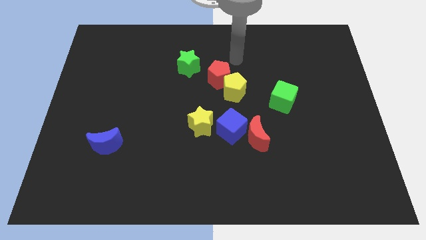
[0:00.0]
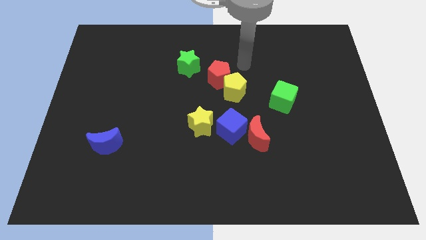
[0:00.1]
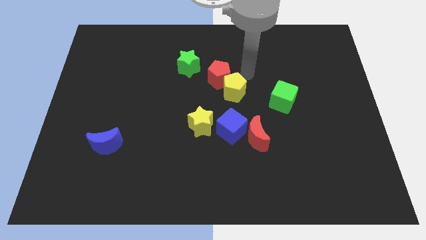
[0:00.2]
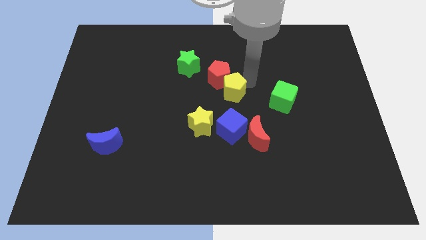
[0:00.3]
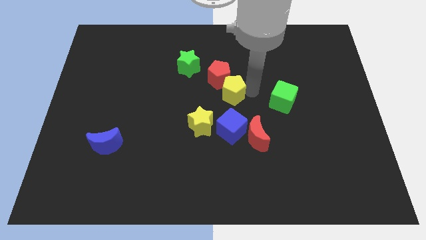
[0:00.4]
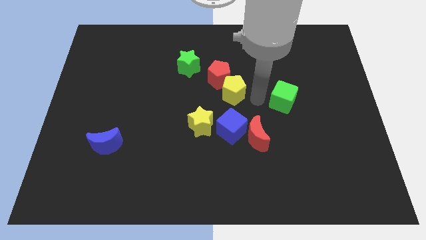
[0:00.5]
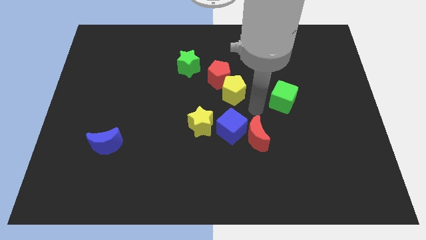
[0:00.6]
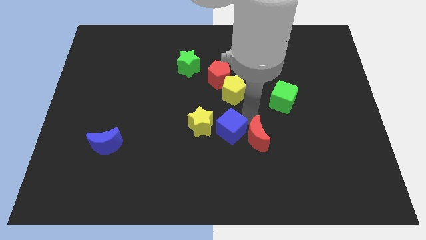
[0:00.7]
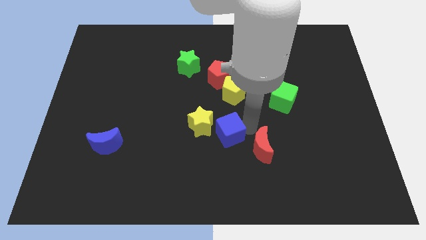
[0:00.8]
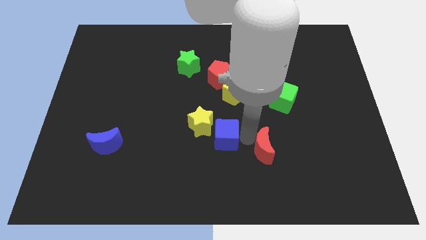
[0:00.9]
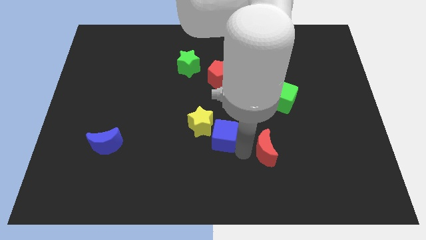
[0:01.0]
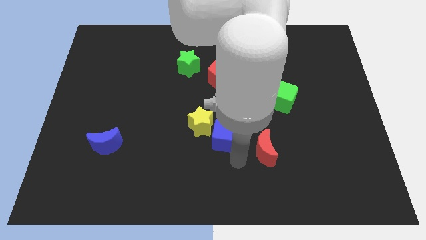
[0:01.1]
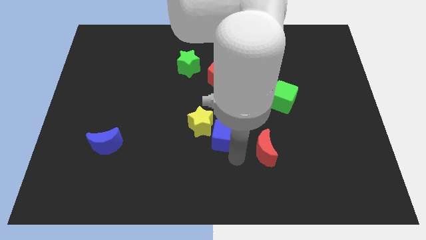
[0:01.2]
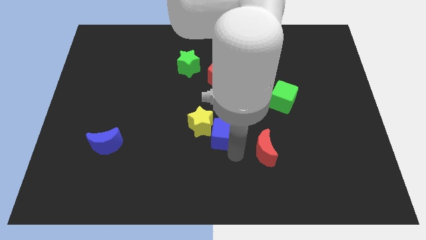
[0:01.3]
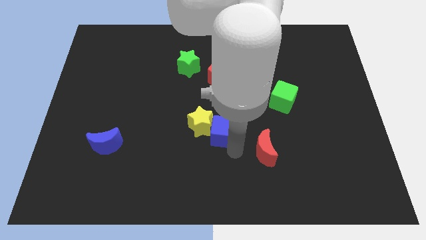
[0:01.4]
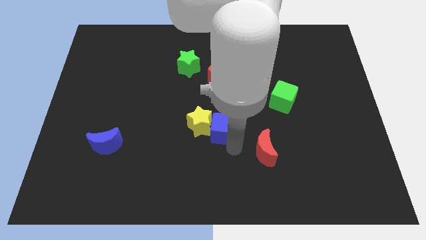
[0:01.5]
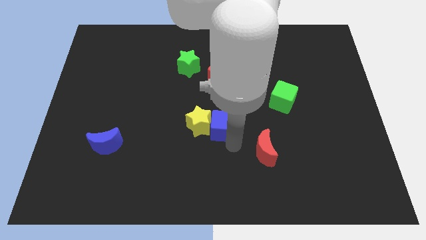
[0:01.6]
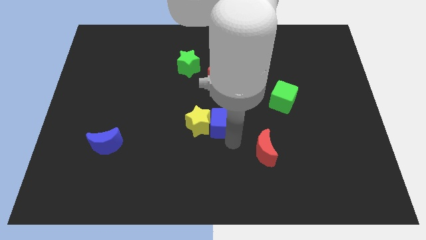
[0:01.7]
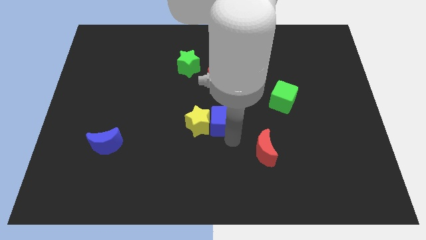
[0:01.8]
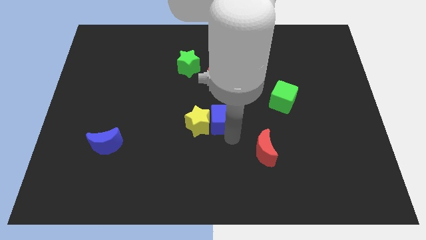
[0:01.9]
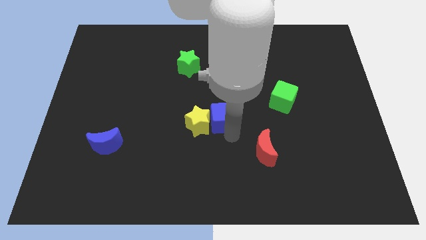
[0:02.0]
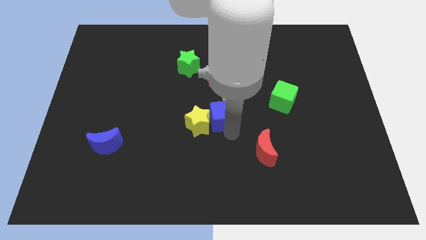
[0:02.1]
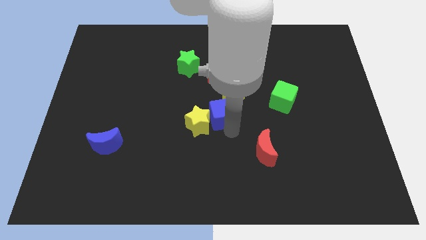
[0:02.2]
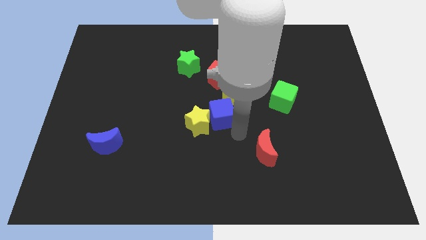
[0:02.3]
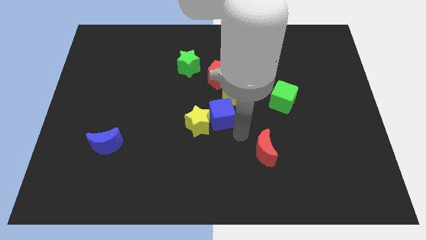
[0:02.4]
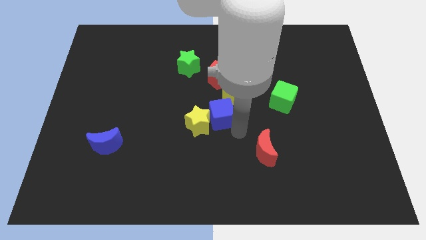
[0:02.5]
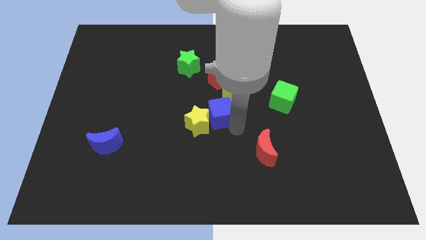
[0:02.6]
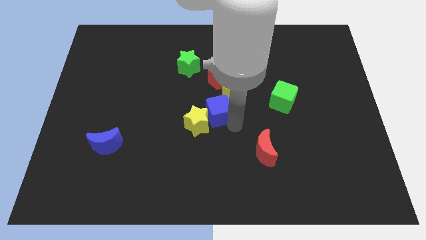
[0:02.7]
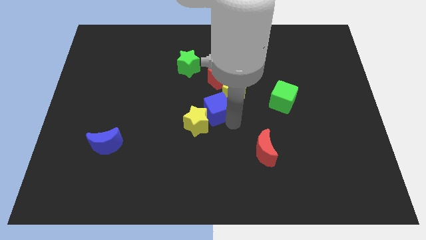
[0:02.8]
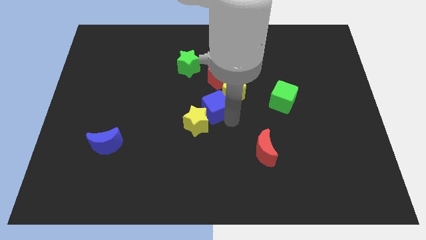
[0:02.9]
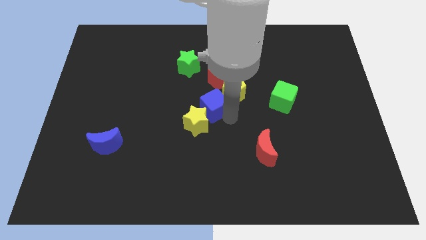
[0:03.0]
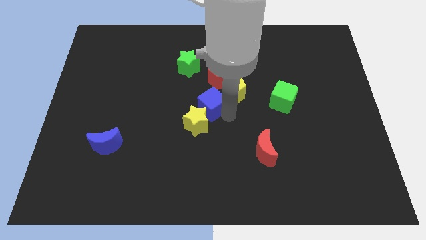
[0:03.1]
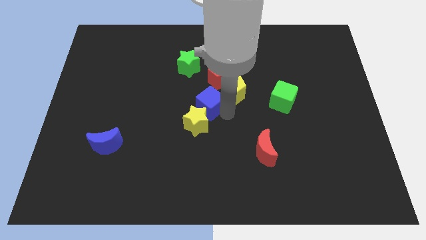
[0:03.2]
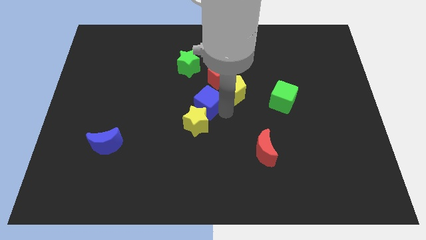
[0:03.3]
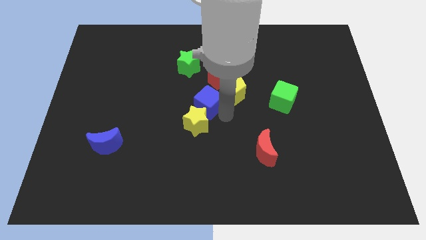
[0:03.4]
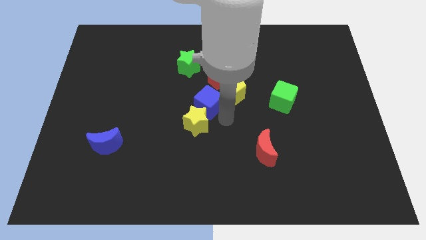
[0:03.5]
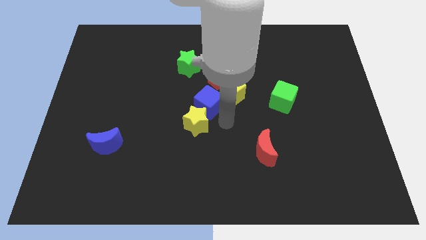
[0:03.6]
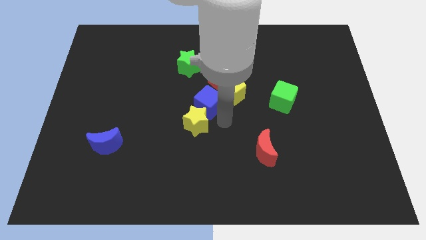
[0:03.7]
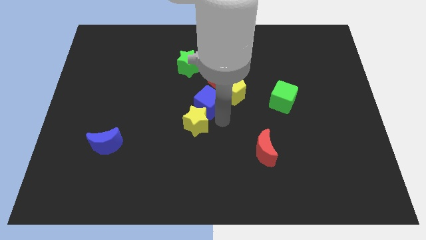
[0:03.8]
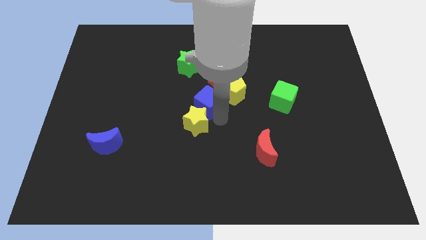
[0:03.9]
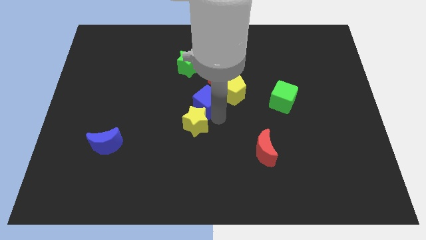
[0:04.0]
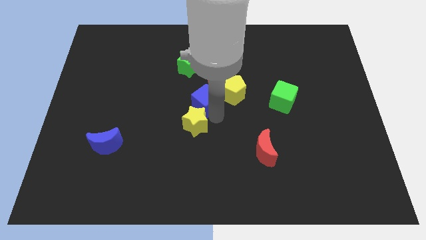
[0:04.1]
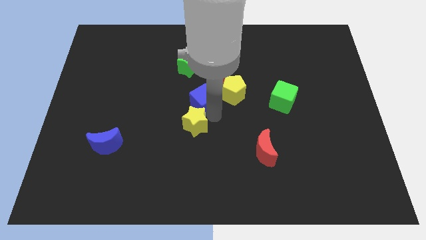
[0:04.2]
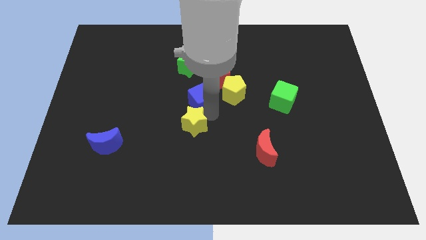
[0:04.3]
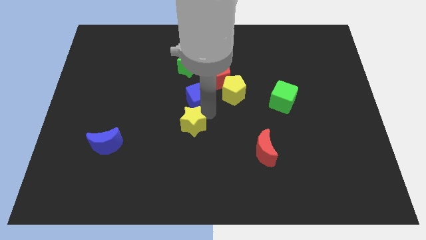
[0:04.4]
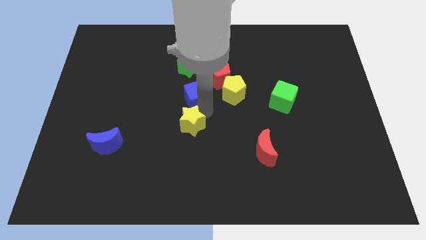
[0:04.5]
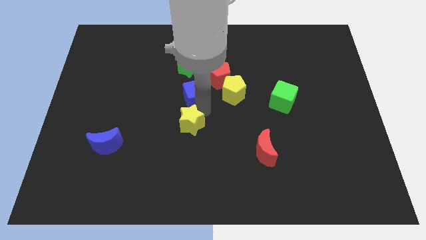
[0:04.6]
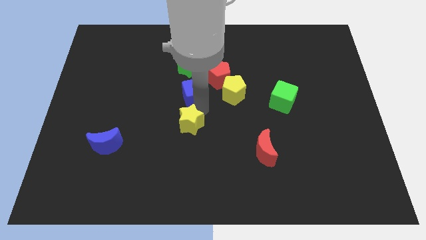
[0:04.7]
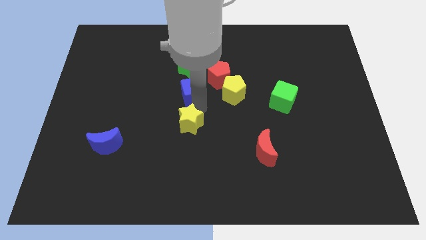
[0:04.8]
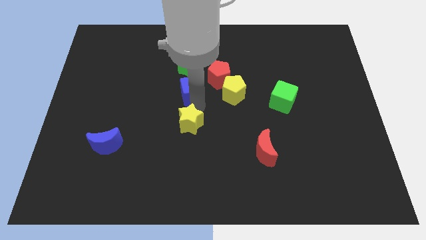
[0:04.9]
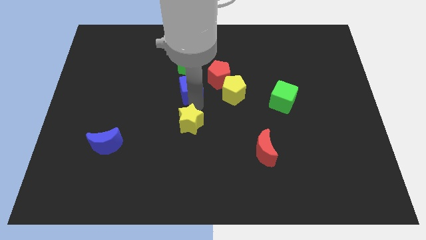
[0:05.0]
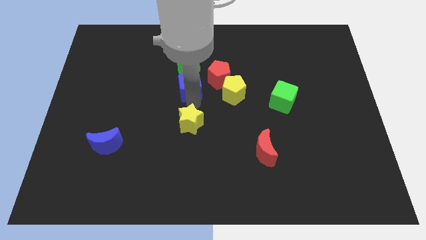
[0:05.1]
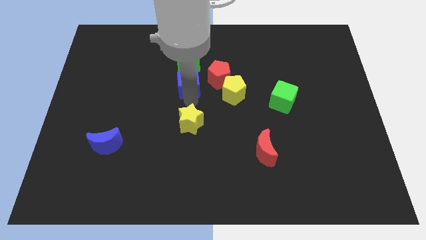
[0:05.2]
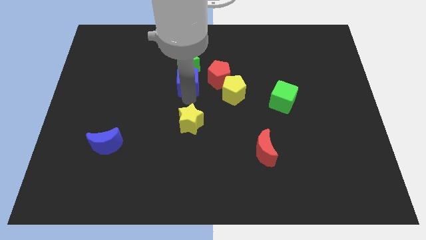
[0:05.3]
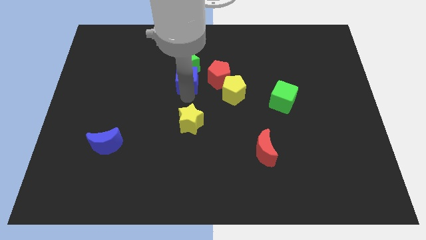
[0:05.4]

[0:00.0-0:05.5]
move the blue cube to the green star

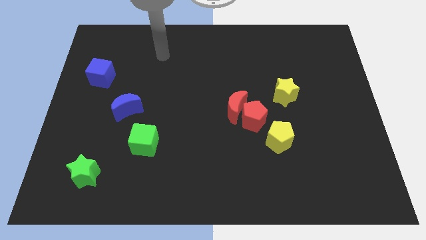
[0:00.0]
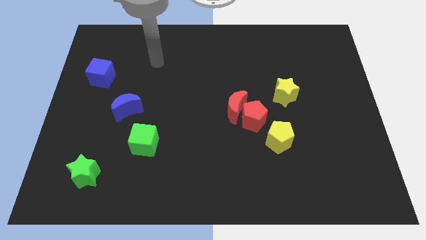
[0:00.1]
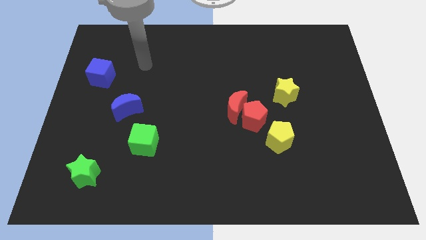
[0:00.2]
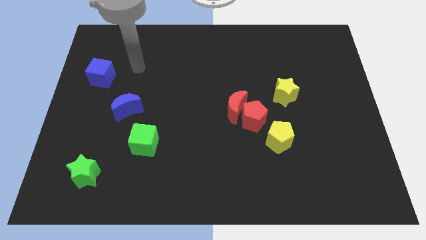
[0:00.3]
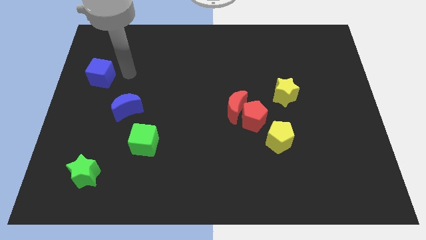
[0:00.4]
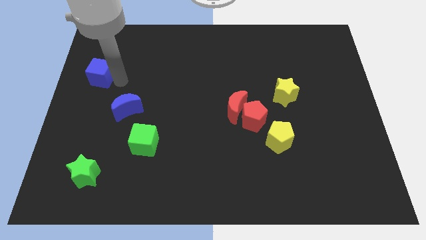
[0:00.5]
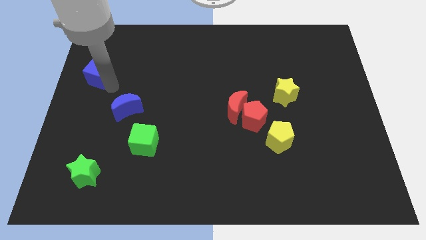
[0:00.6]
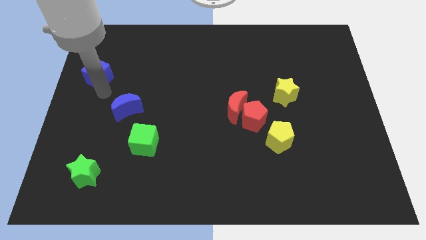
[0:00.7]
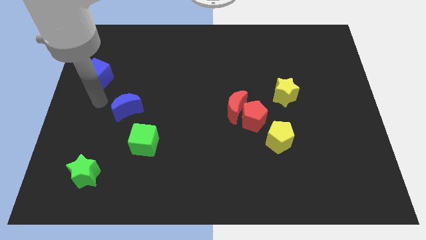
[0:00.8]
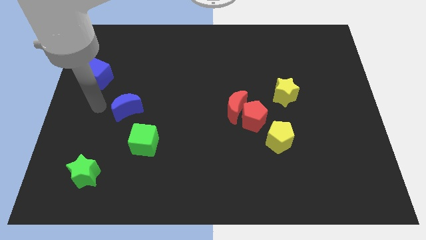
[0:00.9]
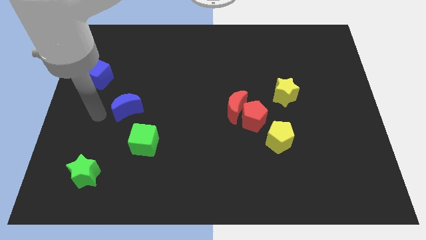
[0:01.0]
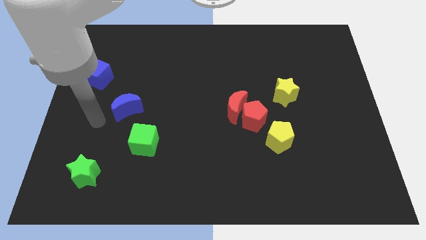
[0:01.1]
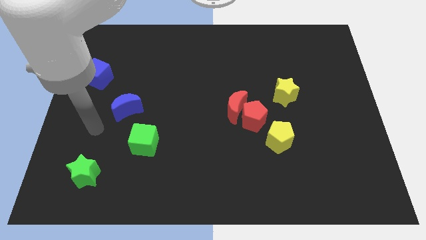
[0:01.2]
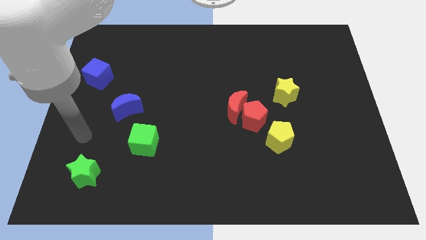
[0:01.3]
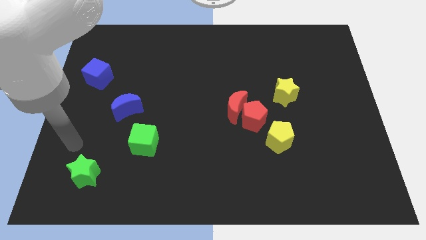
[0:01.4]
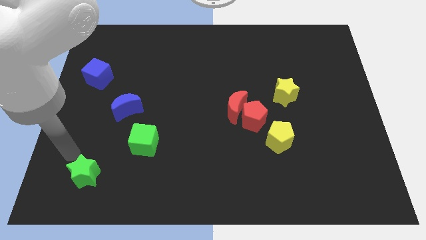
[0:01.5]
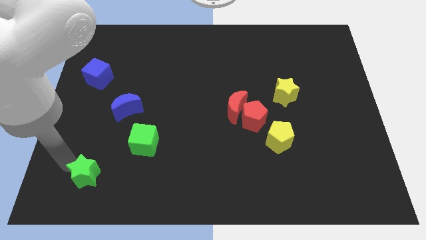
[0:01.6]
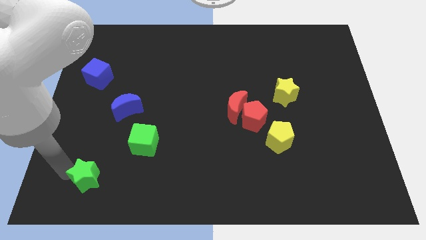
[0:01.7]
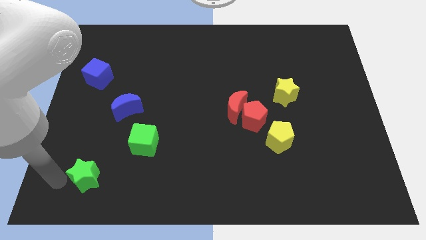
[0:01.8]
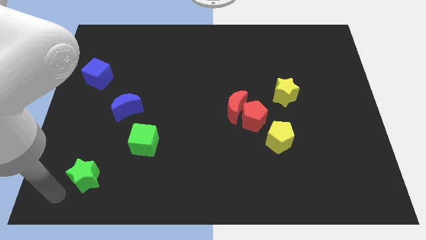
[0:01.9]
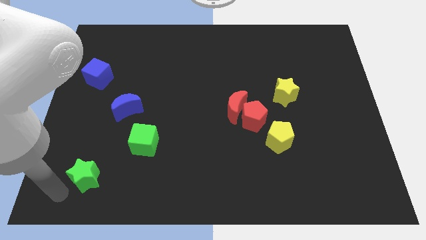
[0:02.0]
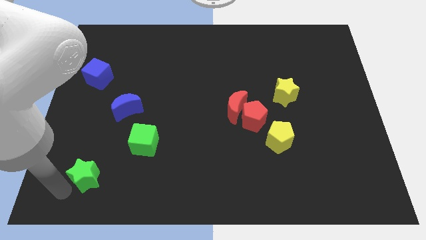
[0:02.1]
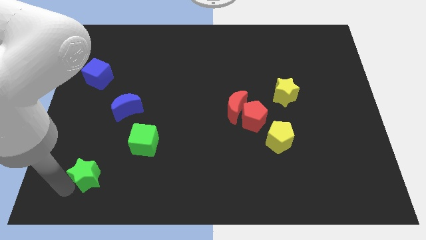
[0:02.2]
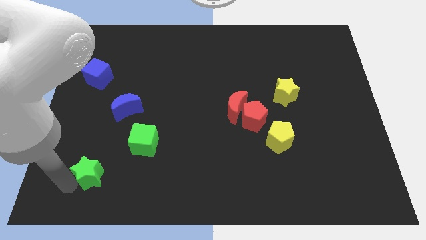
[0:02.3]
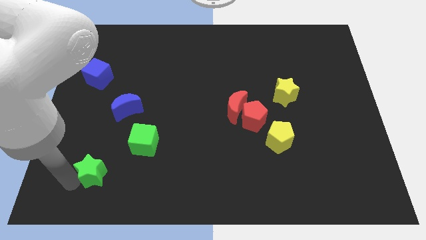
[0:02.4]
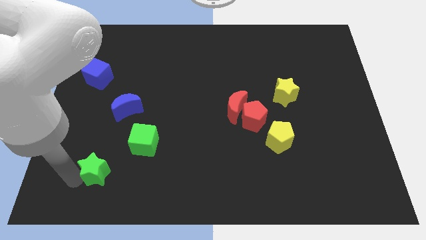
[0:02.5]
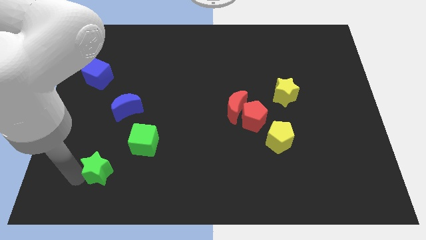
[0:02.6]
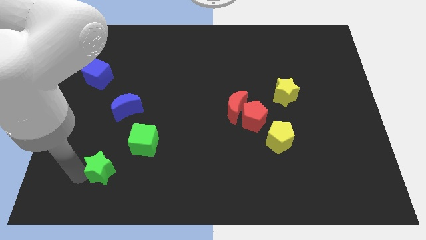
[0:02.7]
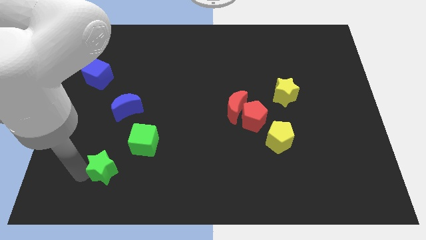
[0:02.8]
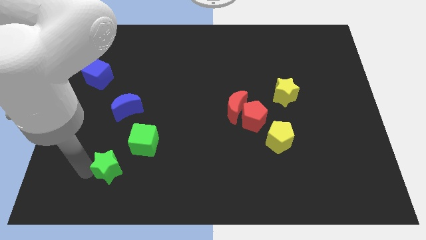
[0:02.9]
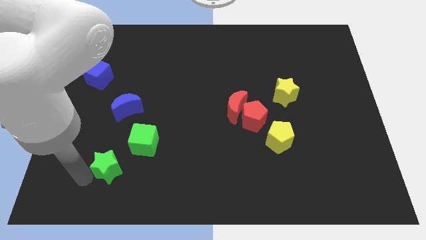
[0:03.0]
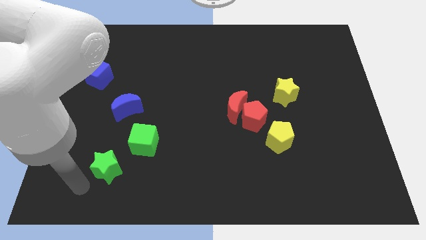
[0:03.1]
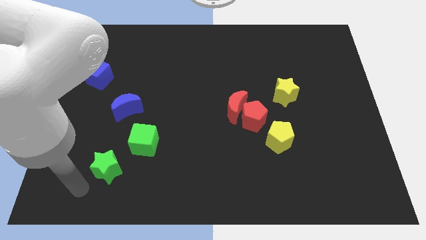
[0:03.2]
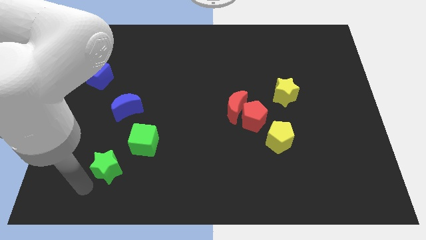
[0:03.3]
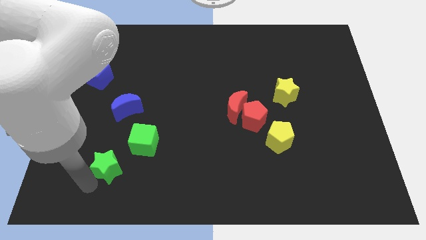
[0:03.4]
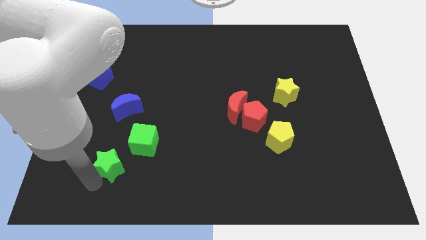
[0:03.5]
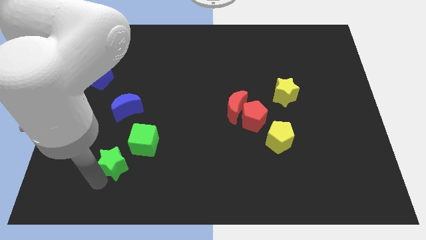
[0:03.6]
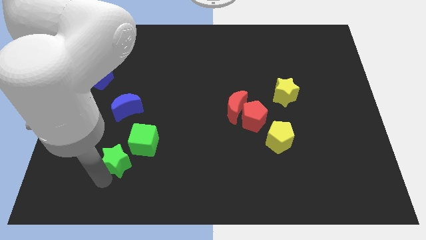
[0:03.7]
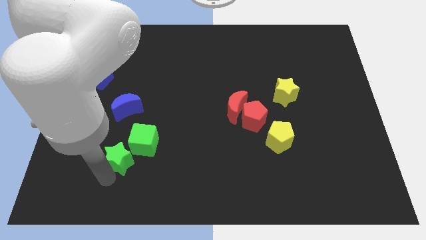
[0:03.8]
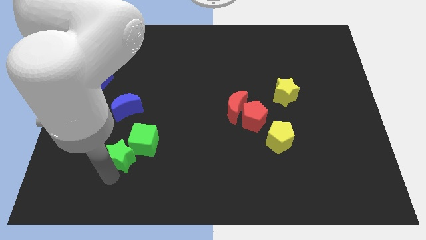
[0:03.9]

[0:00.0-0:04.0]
move the green star to the green cube
